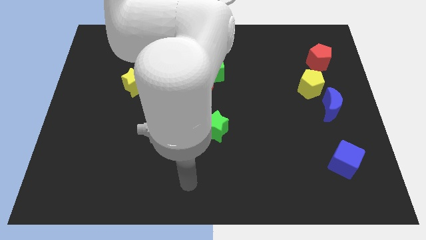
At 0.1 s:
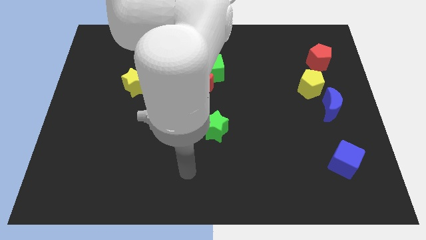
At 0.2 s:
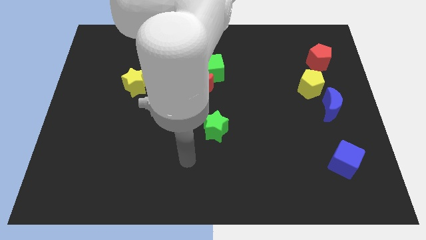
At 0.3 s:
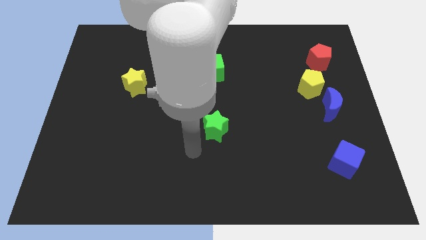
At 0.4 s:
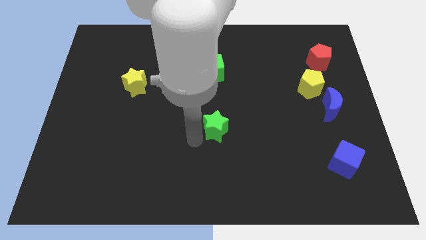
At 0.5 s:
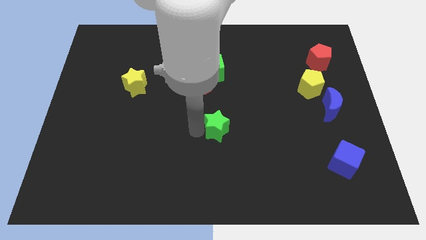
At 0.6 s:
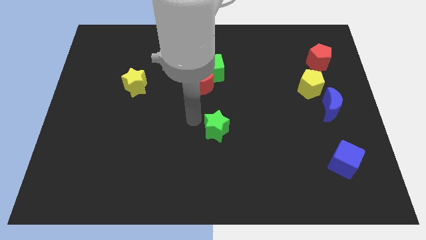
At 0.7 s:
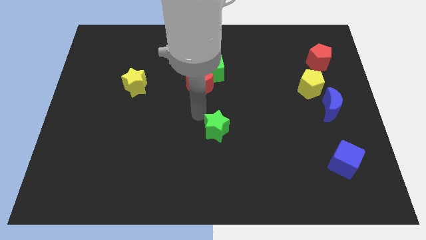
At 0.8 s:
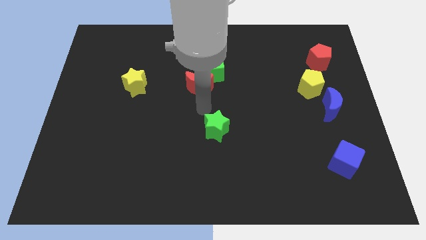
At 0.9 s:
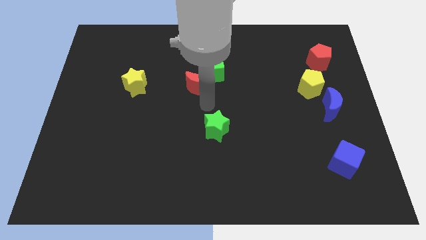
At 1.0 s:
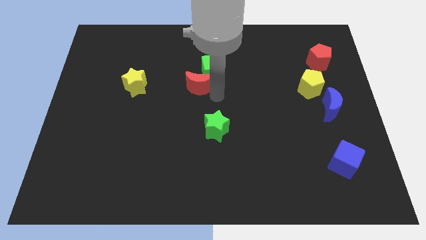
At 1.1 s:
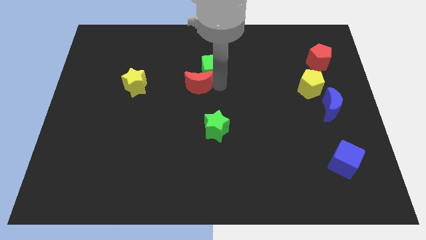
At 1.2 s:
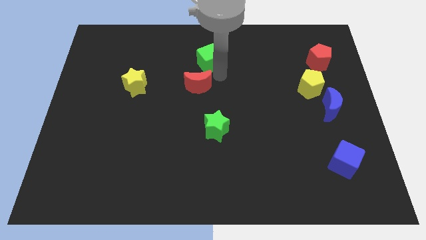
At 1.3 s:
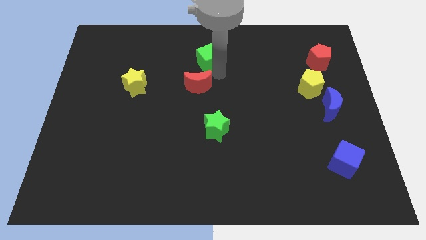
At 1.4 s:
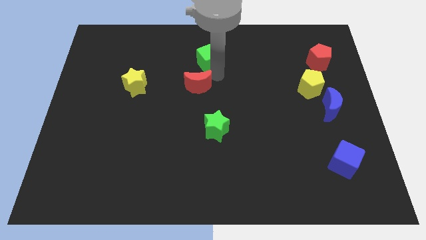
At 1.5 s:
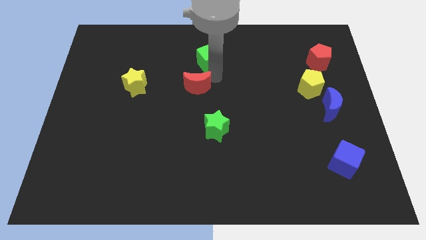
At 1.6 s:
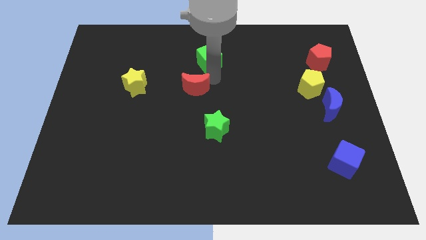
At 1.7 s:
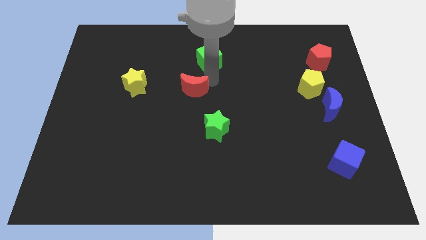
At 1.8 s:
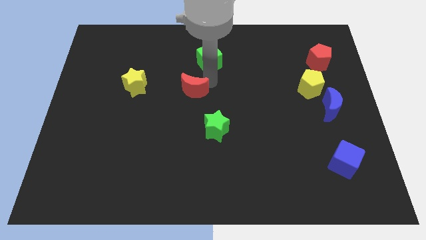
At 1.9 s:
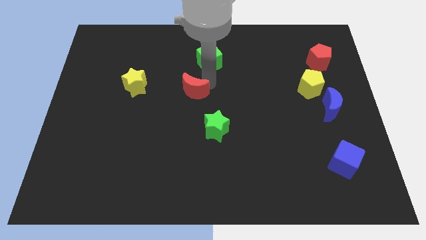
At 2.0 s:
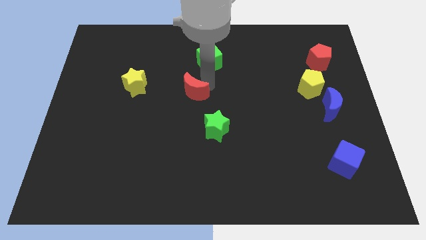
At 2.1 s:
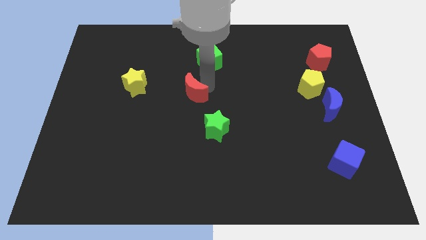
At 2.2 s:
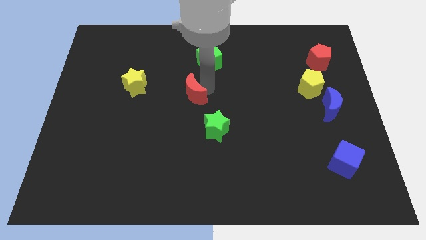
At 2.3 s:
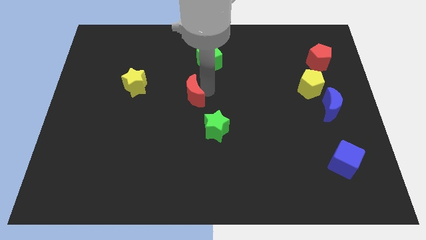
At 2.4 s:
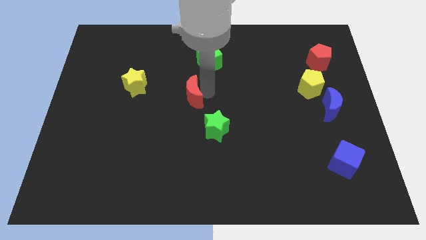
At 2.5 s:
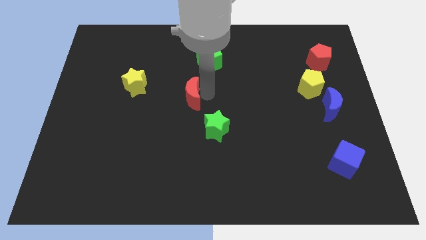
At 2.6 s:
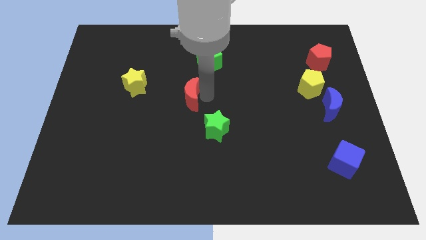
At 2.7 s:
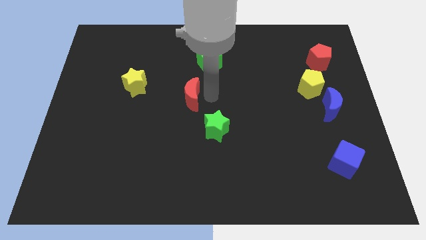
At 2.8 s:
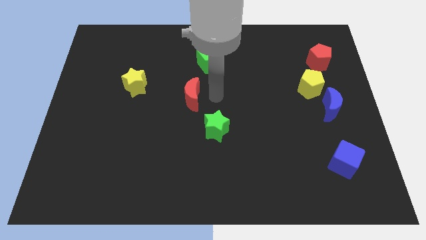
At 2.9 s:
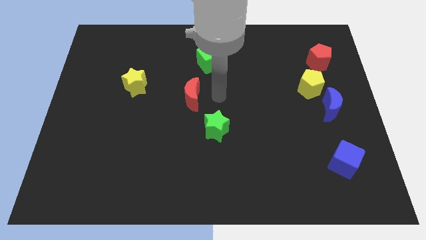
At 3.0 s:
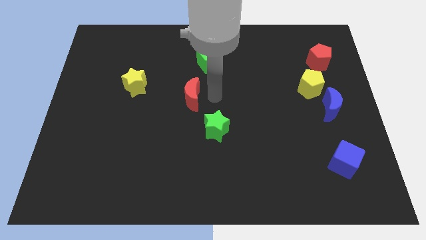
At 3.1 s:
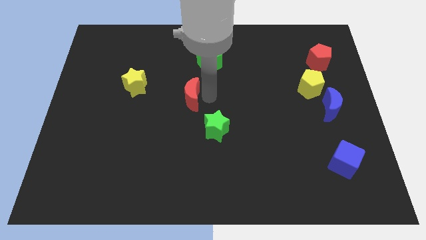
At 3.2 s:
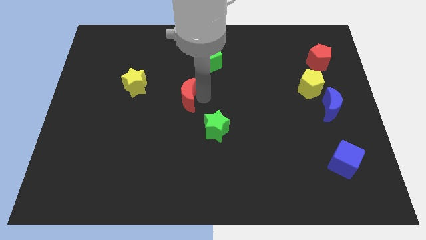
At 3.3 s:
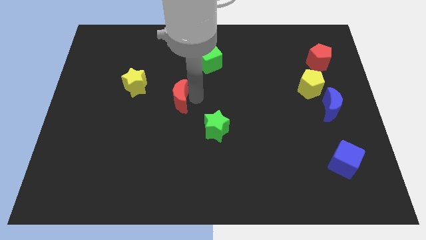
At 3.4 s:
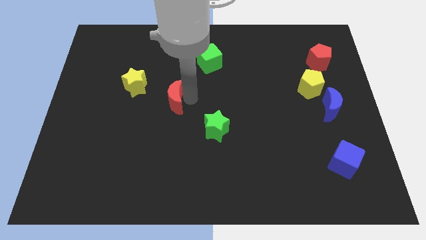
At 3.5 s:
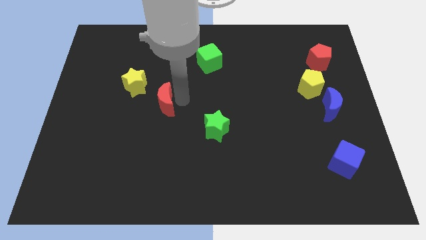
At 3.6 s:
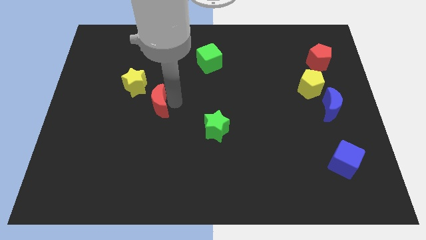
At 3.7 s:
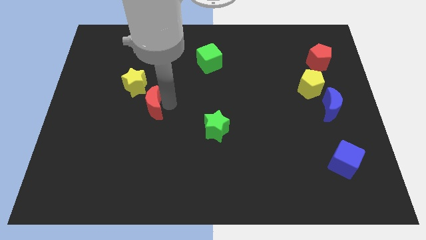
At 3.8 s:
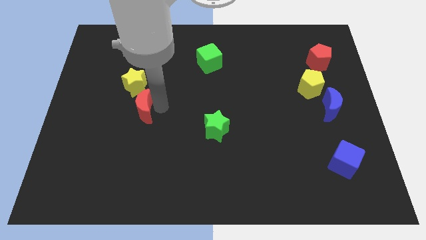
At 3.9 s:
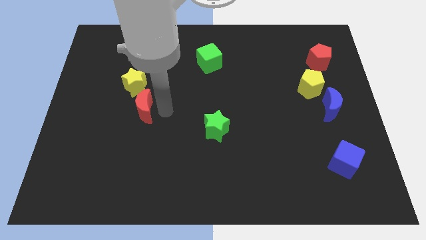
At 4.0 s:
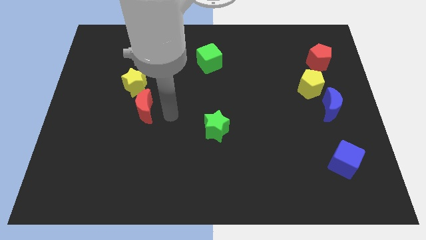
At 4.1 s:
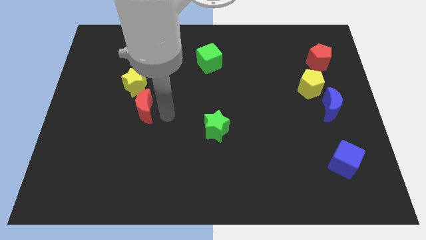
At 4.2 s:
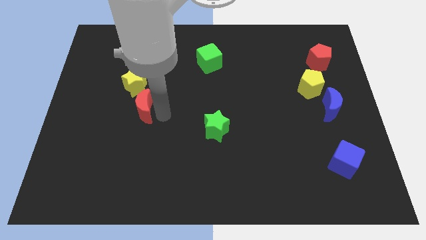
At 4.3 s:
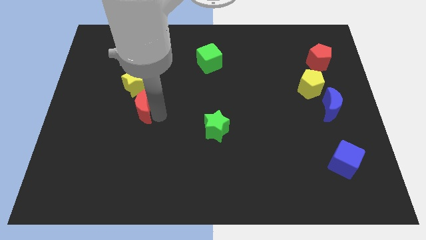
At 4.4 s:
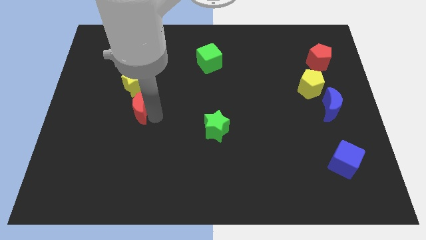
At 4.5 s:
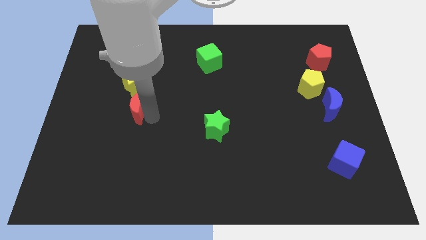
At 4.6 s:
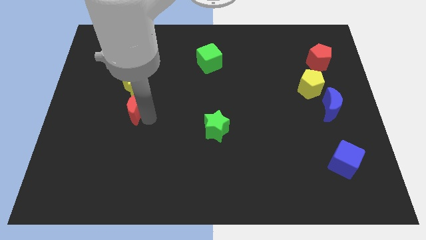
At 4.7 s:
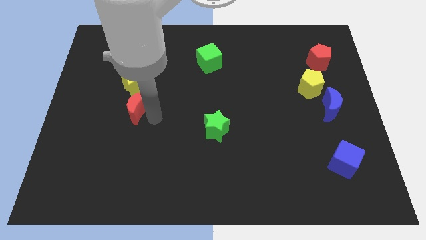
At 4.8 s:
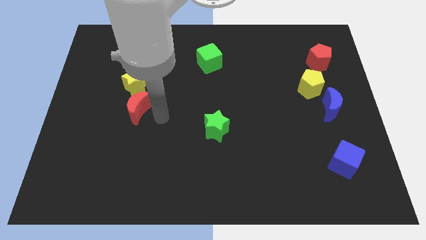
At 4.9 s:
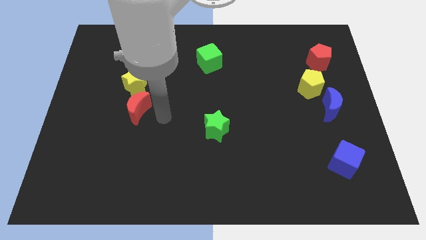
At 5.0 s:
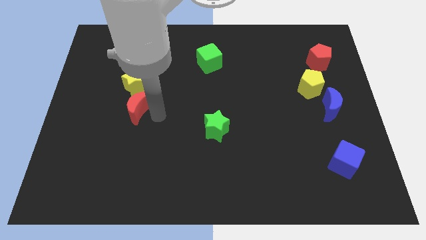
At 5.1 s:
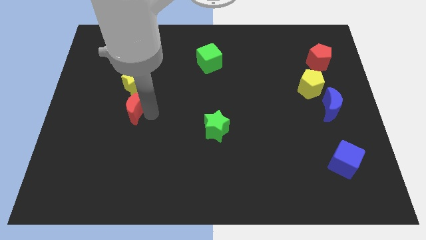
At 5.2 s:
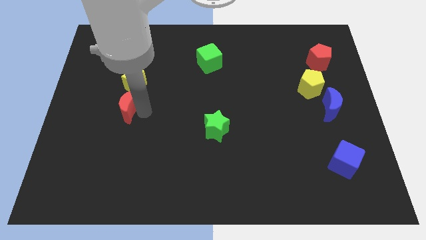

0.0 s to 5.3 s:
move the red moon diagonally down and to the left of the yellow star

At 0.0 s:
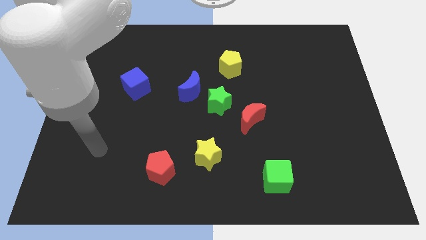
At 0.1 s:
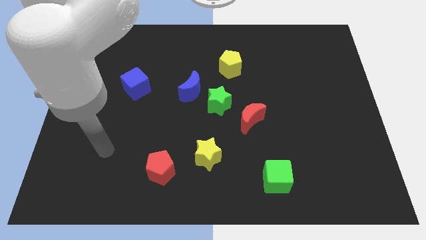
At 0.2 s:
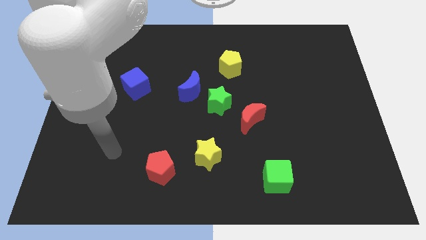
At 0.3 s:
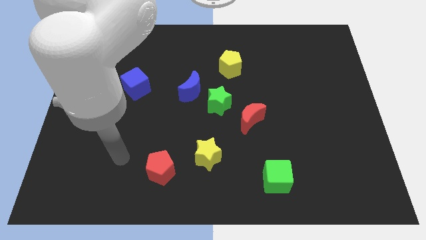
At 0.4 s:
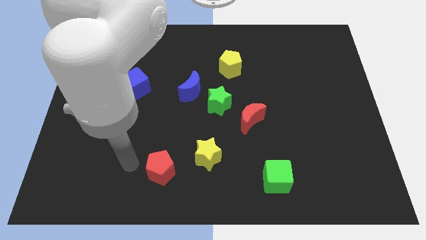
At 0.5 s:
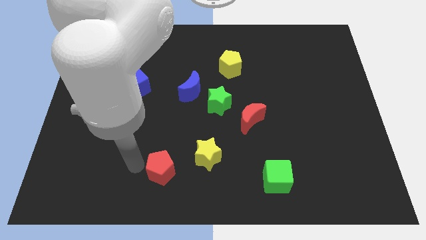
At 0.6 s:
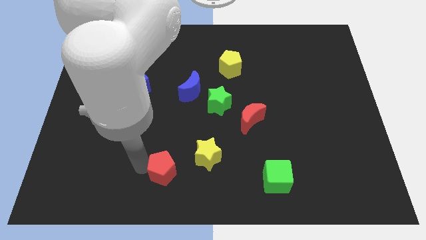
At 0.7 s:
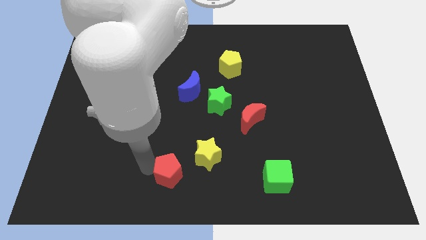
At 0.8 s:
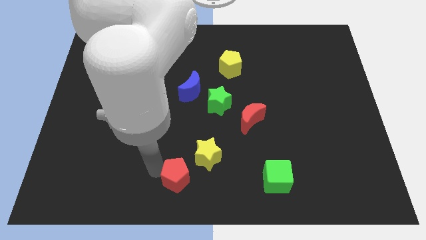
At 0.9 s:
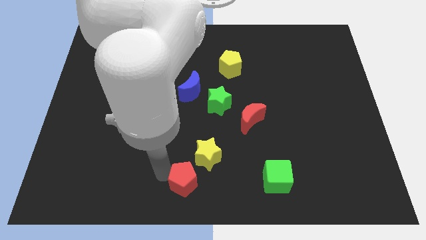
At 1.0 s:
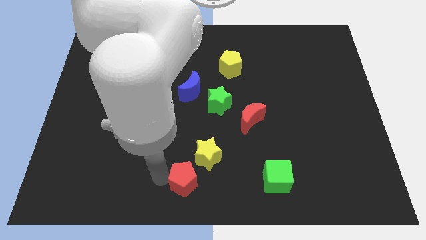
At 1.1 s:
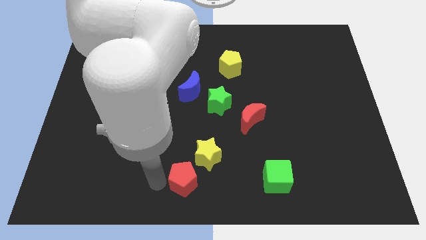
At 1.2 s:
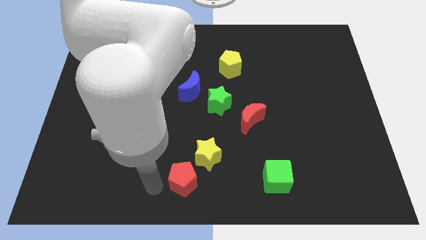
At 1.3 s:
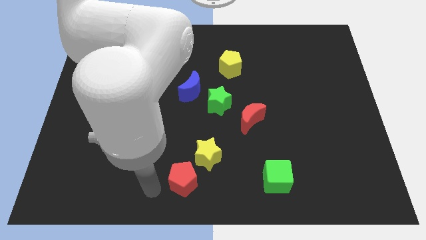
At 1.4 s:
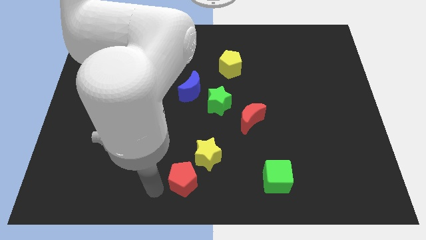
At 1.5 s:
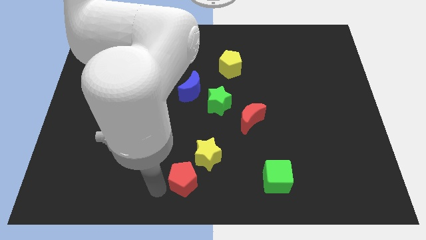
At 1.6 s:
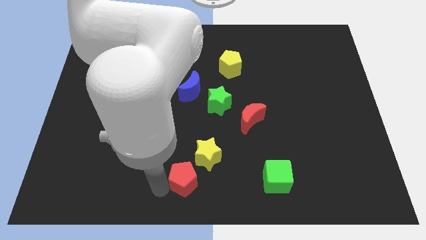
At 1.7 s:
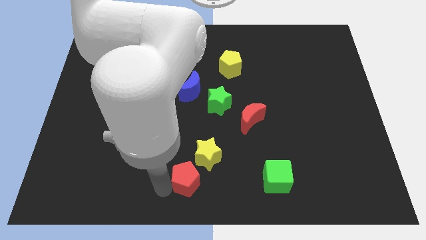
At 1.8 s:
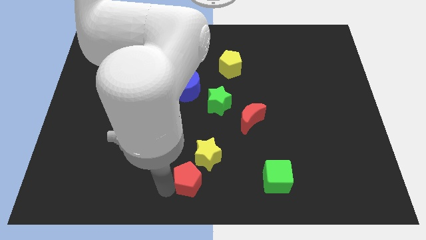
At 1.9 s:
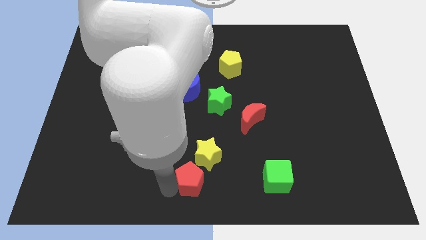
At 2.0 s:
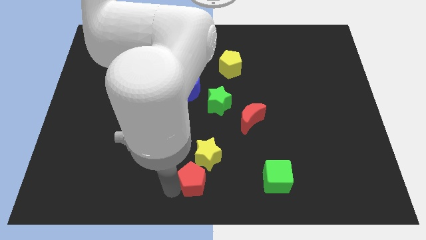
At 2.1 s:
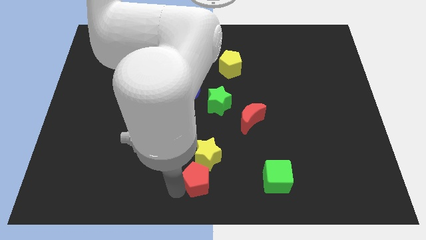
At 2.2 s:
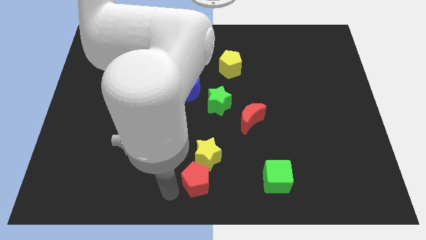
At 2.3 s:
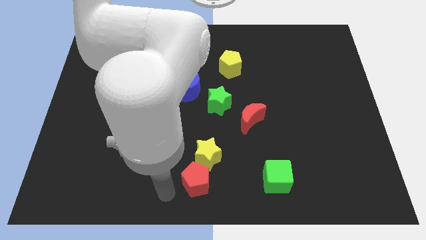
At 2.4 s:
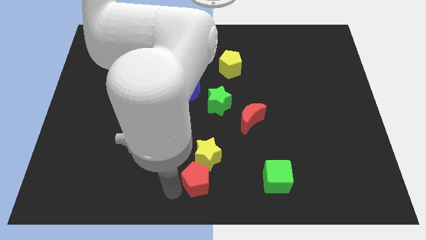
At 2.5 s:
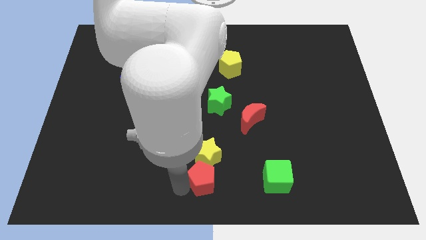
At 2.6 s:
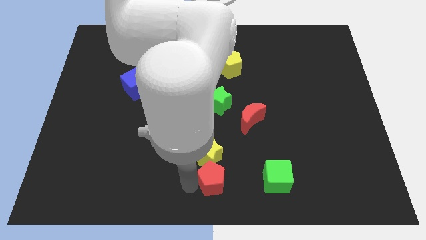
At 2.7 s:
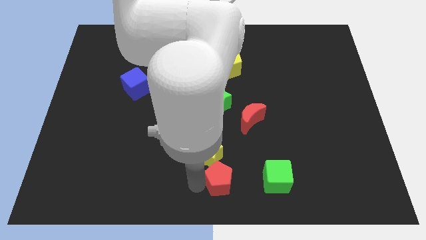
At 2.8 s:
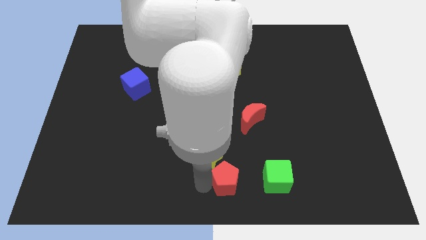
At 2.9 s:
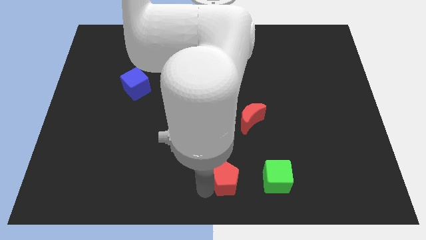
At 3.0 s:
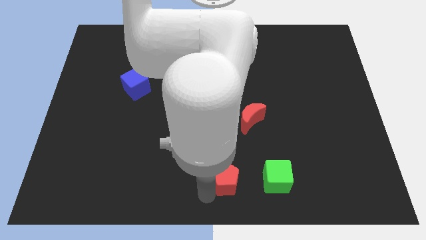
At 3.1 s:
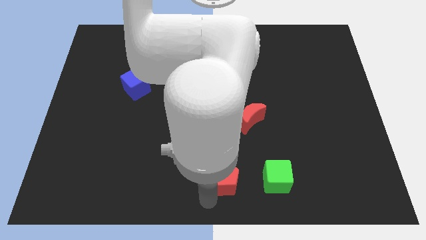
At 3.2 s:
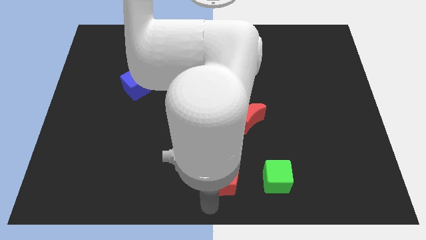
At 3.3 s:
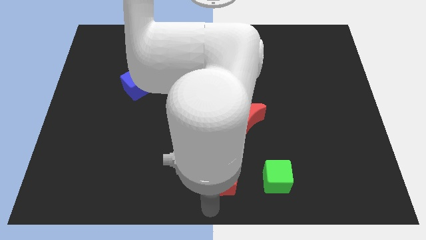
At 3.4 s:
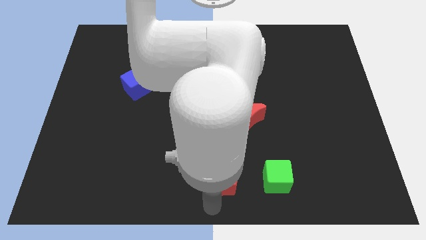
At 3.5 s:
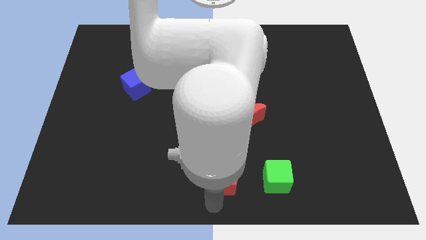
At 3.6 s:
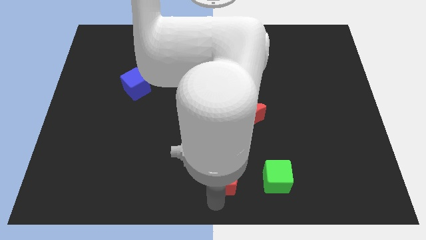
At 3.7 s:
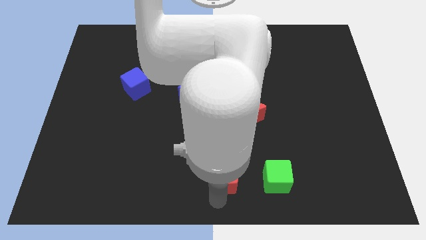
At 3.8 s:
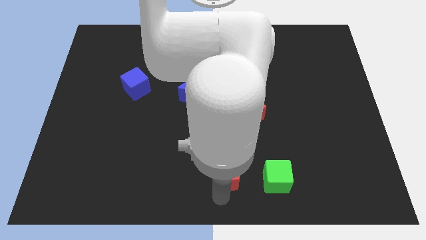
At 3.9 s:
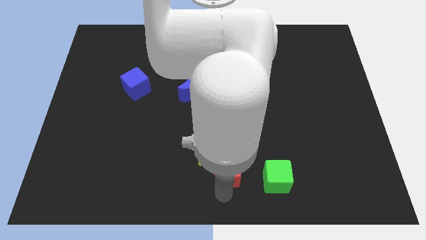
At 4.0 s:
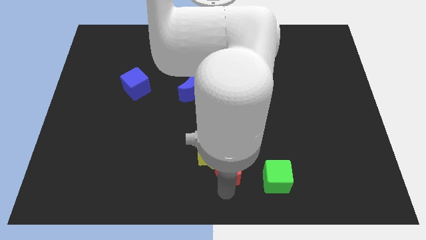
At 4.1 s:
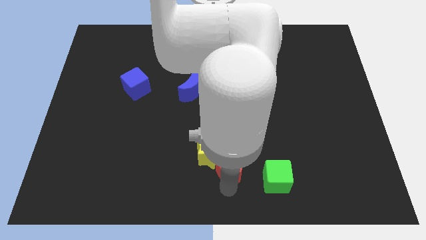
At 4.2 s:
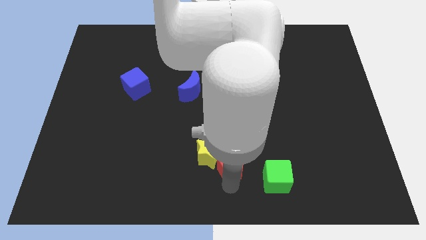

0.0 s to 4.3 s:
push the red pentagon to the bottom of the red moon
